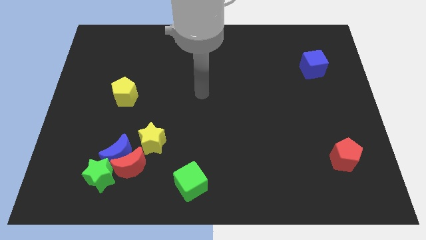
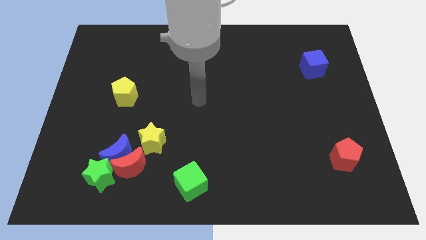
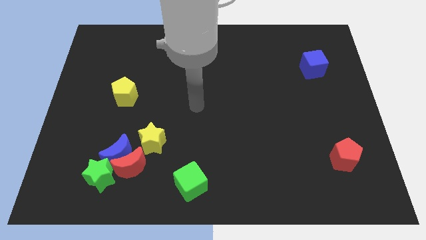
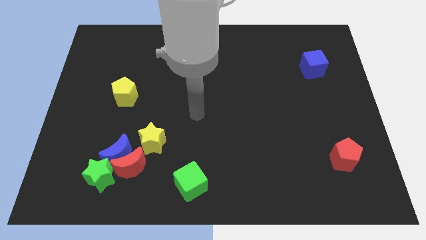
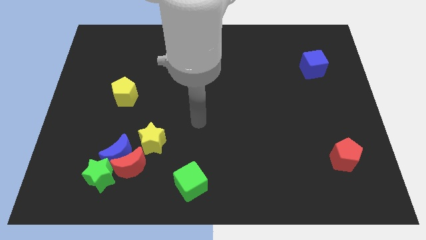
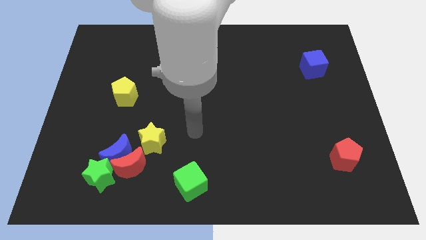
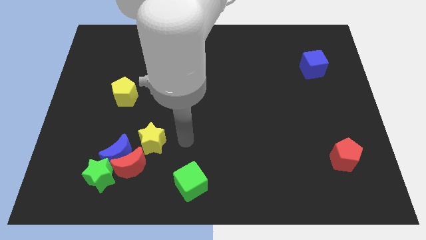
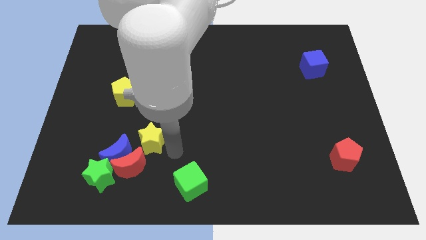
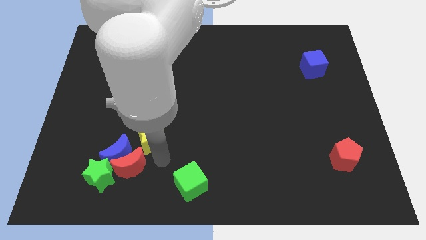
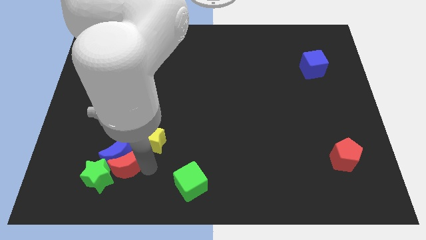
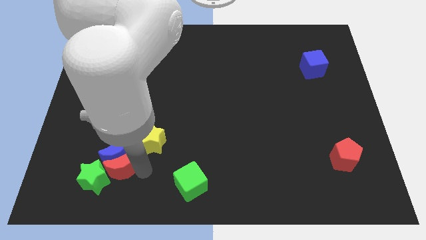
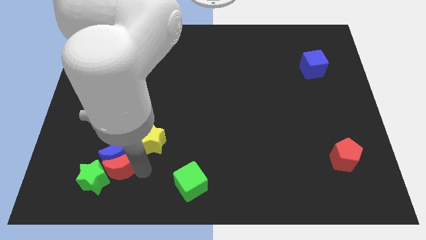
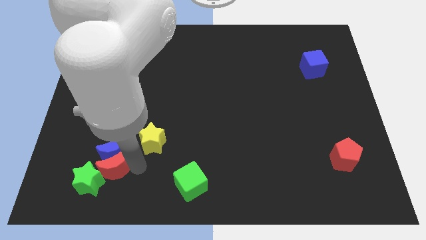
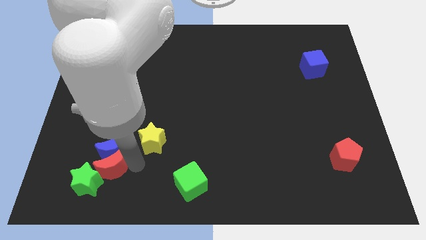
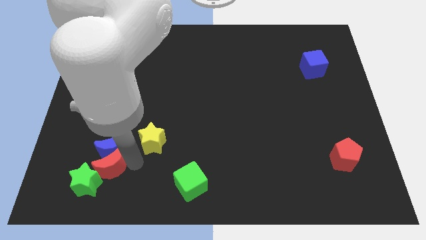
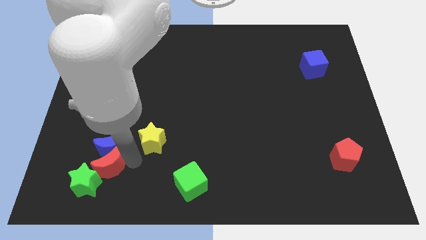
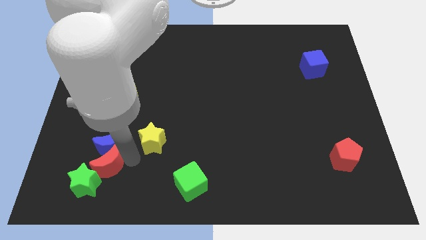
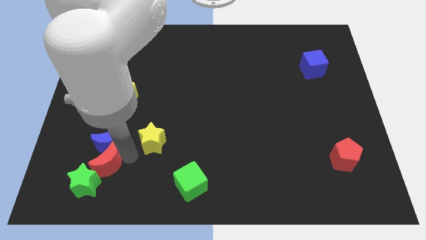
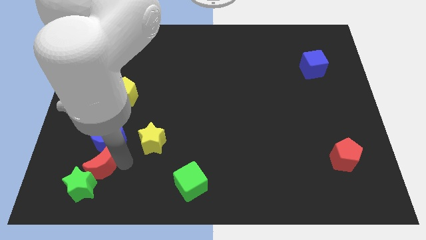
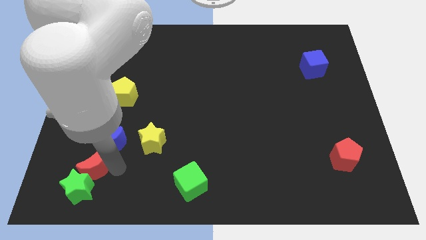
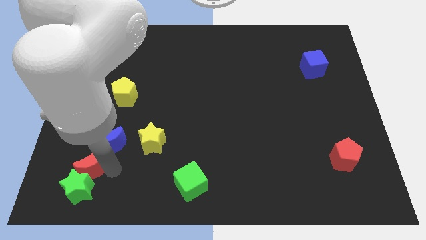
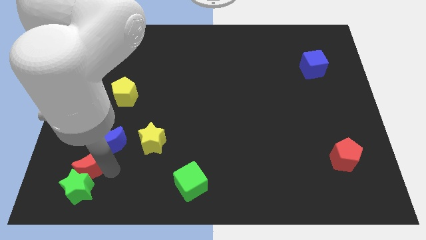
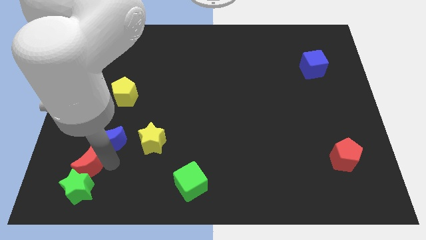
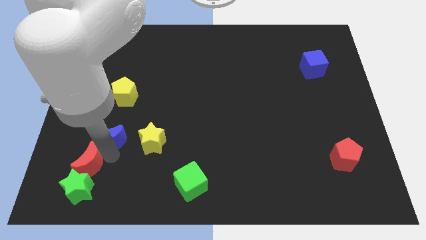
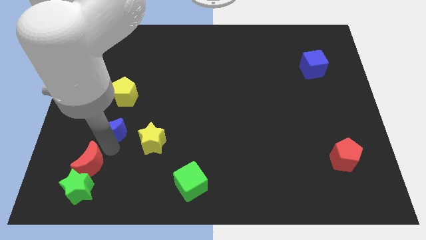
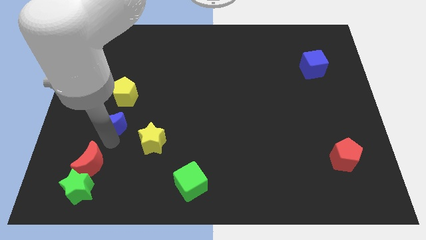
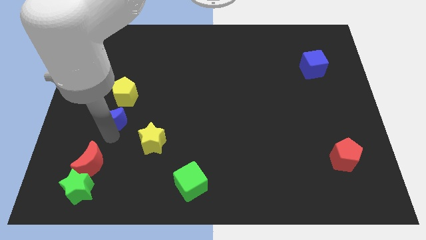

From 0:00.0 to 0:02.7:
move the blue moon away from the group of blocks

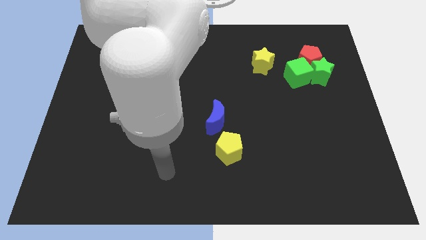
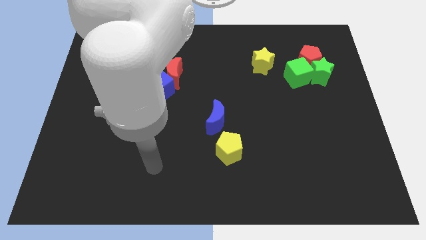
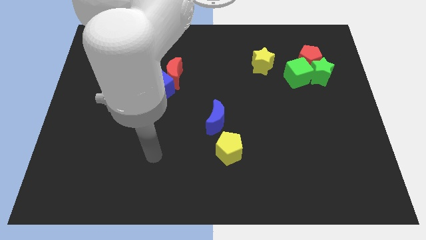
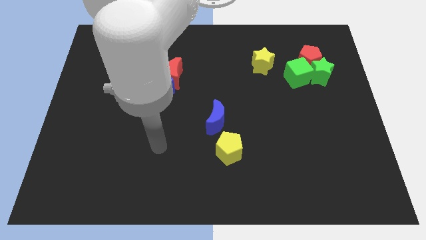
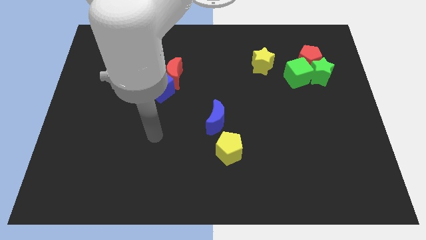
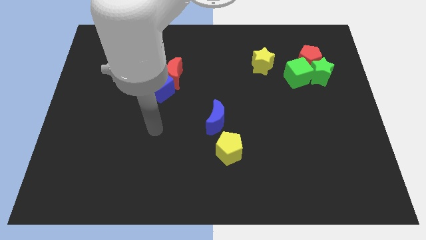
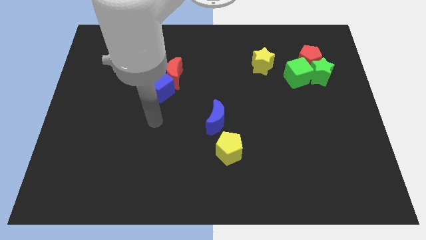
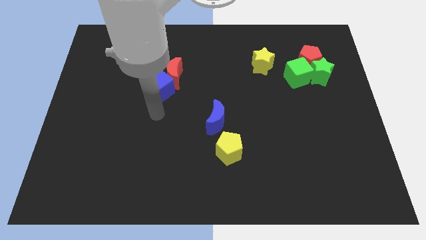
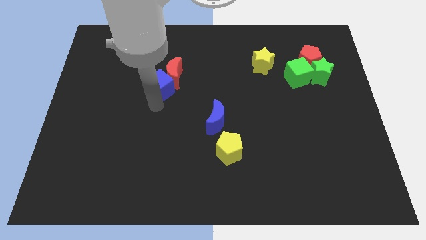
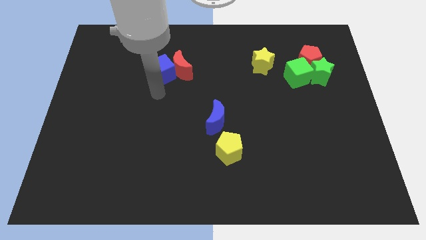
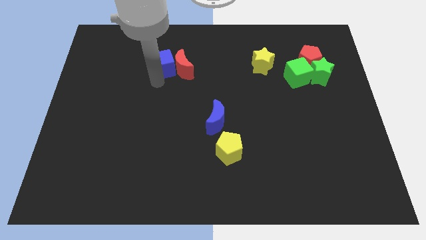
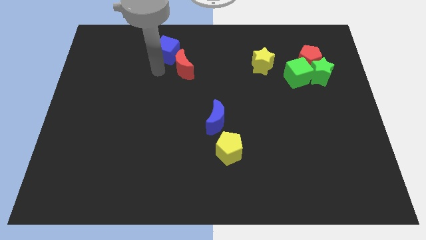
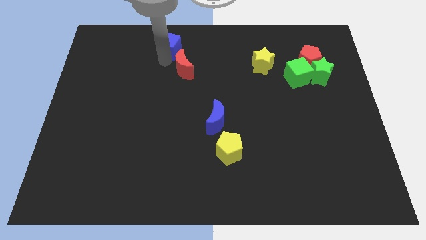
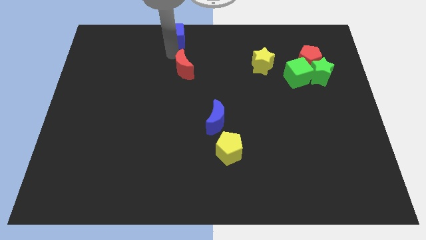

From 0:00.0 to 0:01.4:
separate the red moon from the blue cube

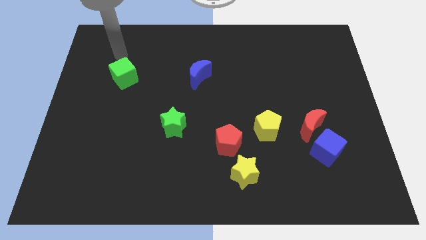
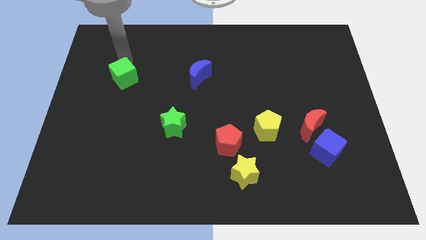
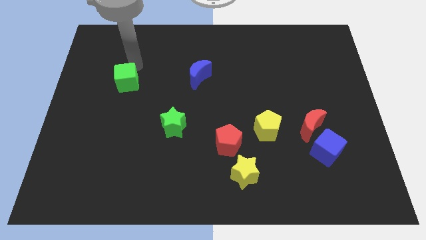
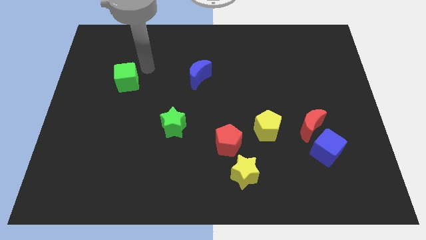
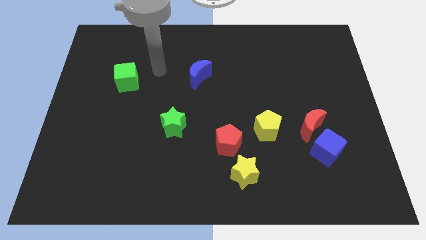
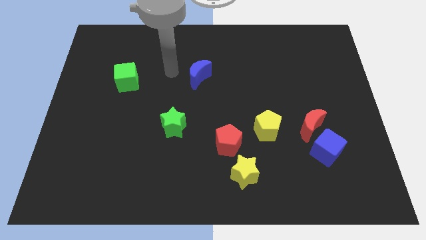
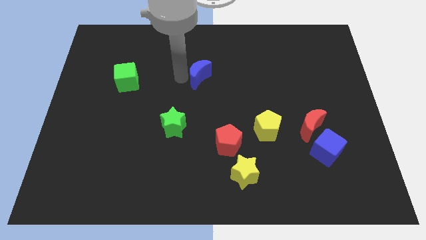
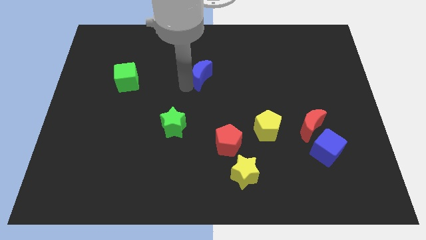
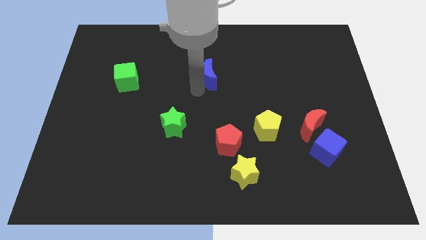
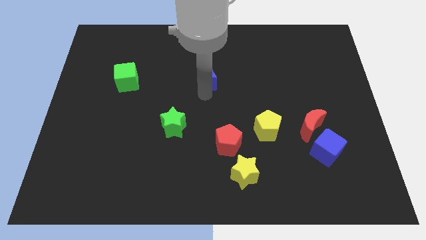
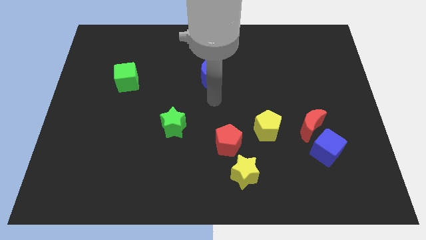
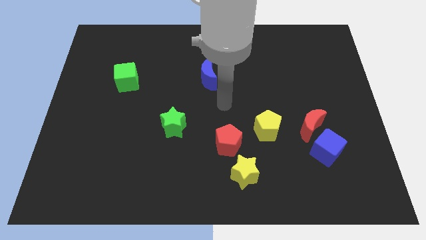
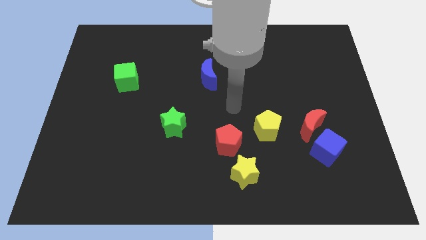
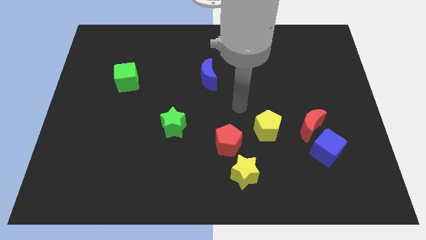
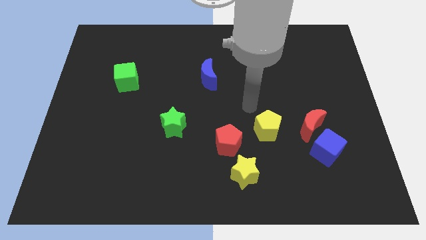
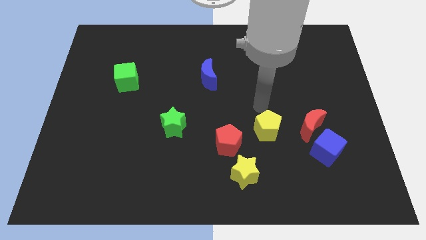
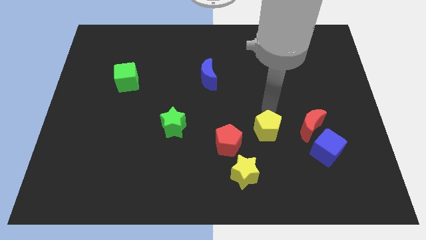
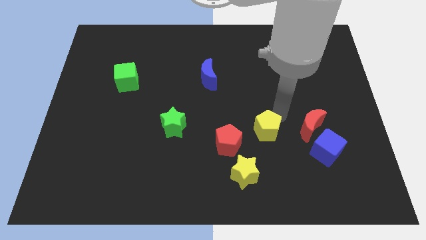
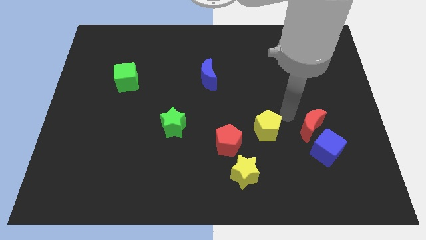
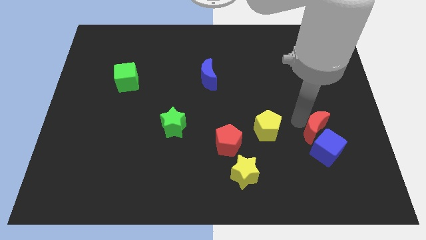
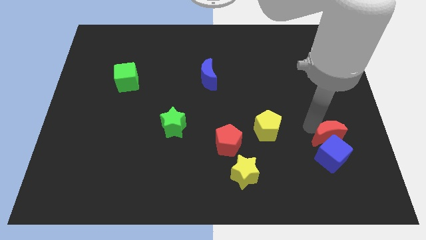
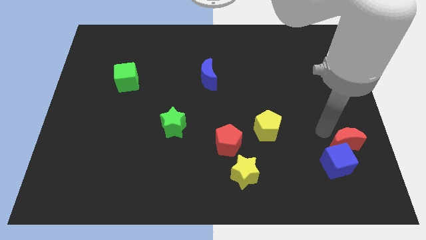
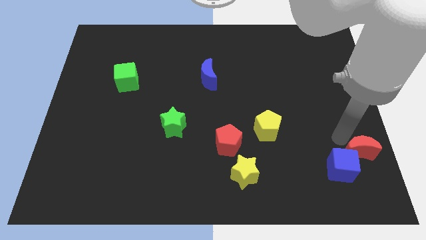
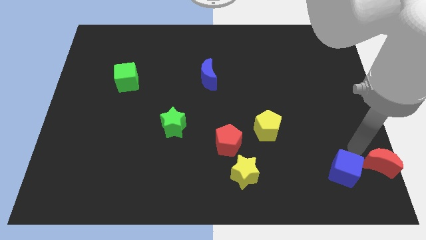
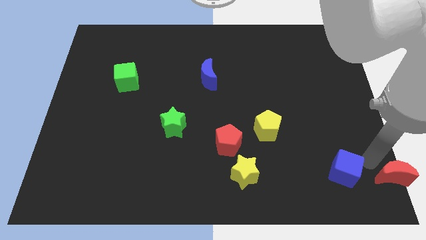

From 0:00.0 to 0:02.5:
separate the blue cube from the red moon

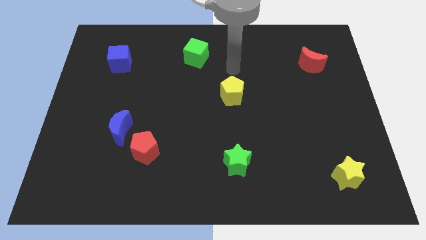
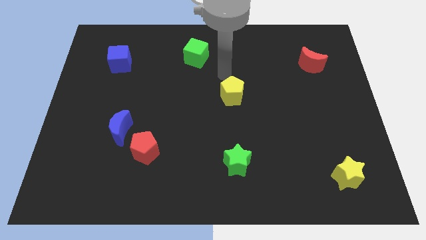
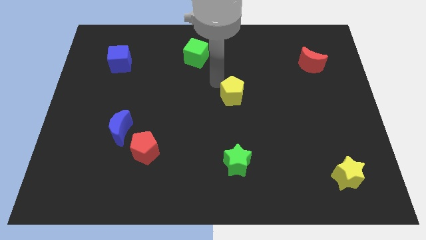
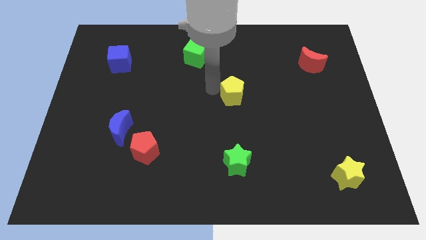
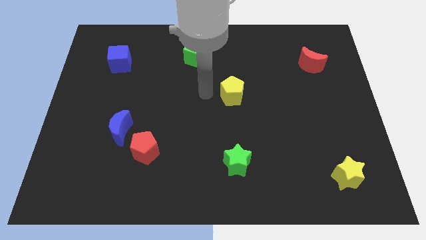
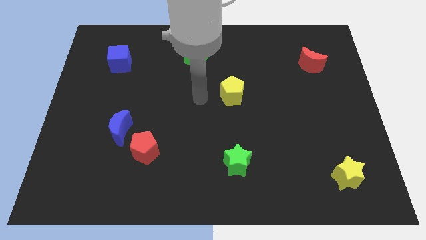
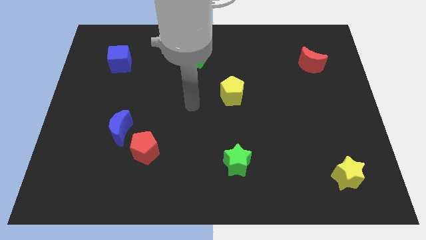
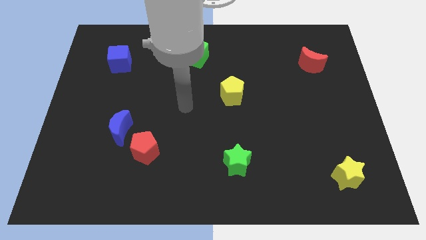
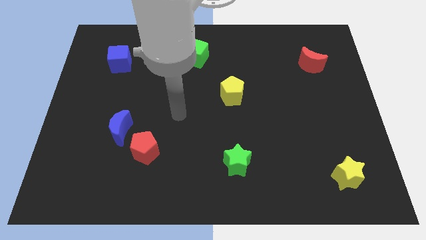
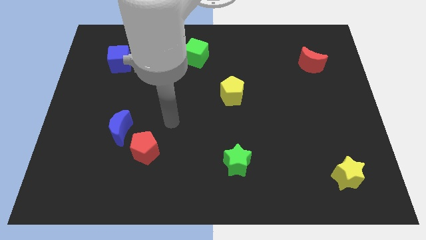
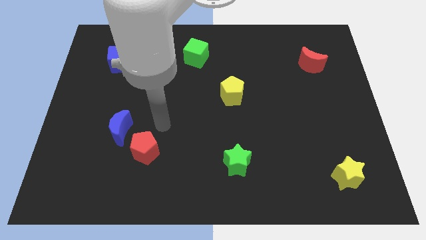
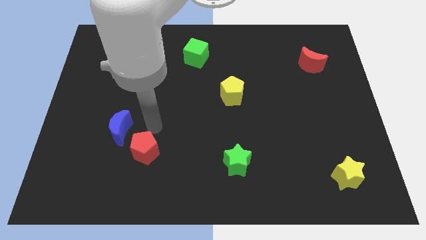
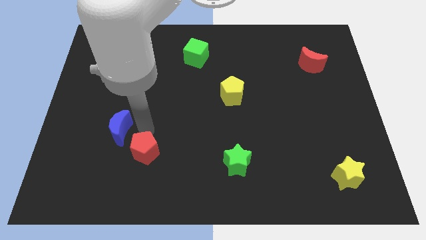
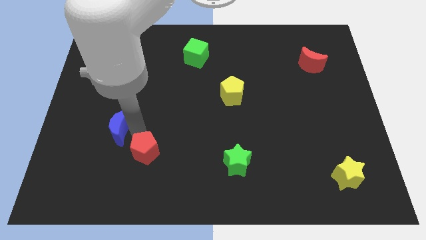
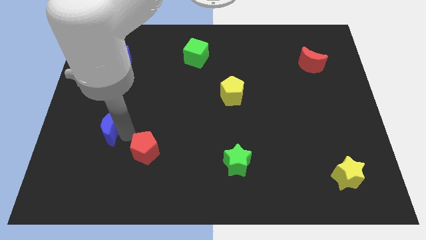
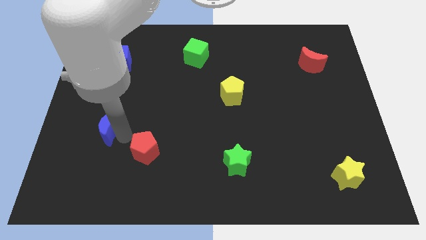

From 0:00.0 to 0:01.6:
pull the red pentagon apart from the blue moon

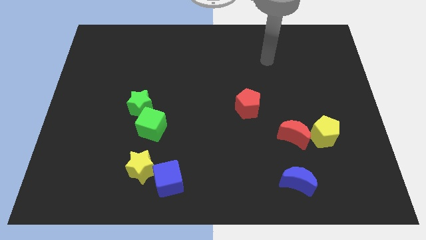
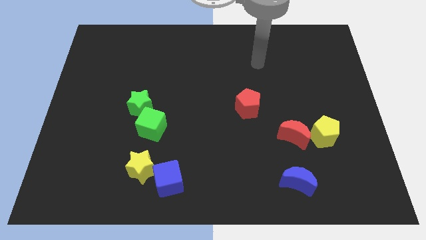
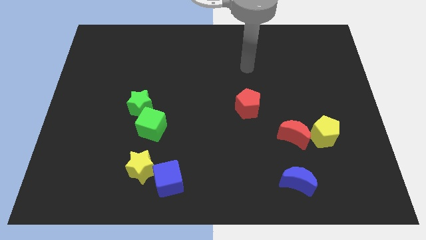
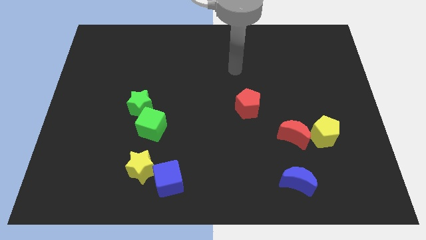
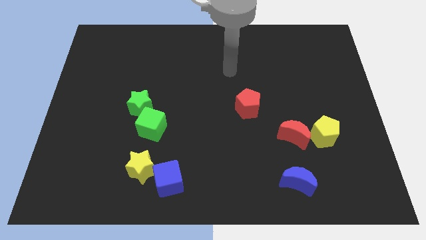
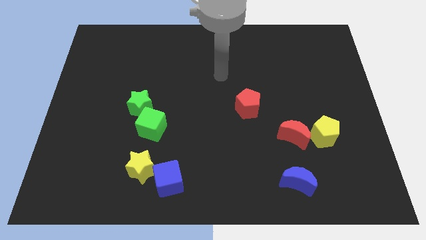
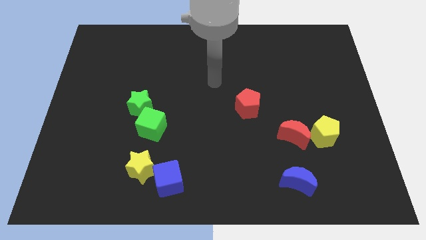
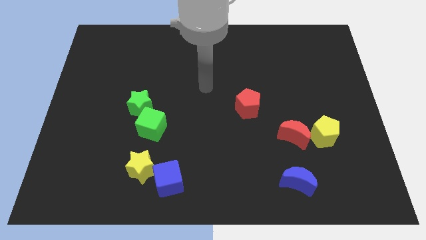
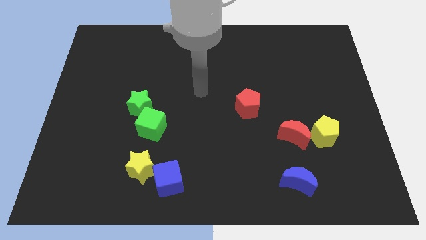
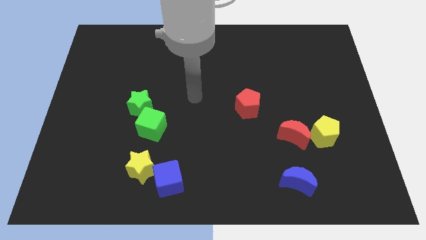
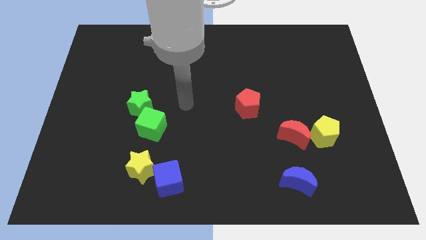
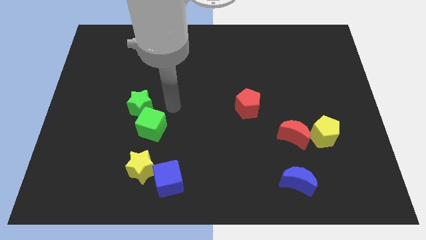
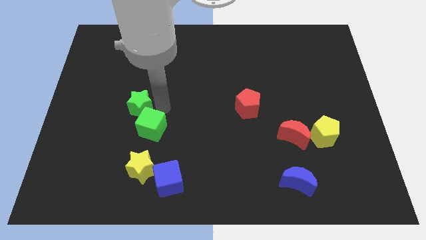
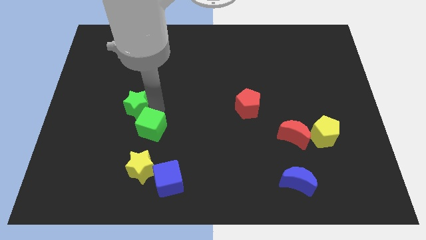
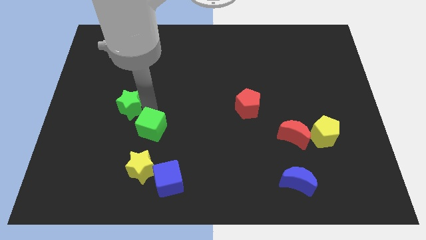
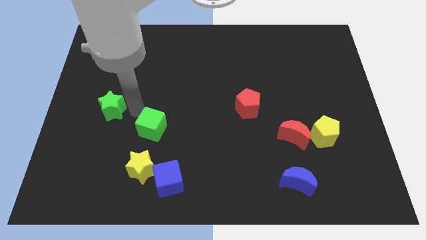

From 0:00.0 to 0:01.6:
move the green cube away from the green star
